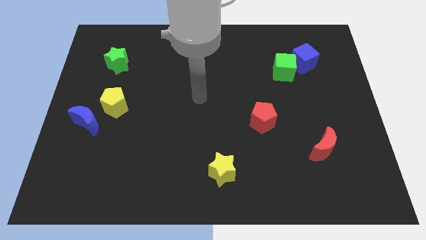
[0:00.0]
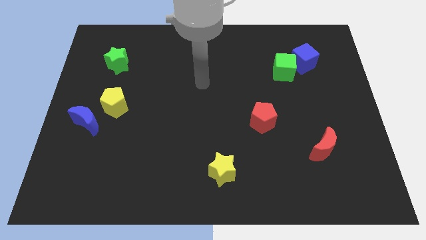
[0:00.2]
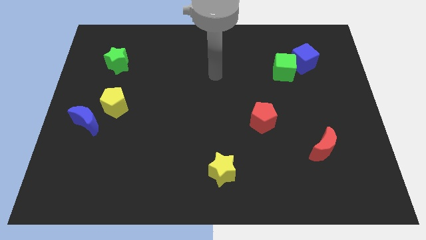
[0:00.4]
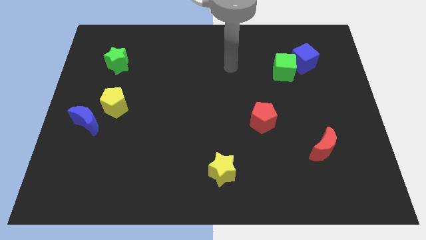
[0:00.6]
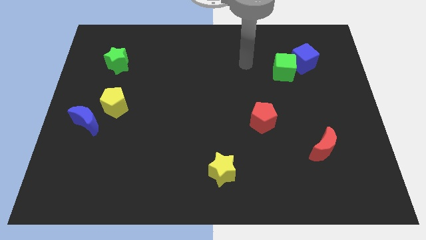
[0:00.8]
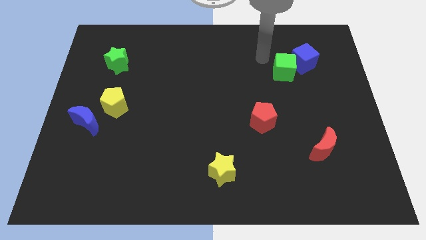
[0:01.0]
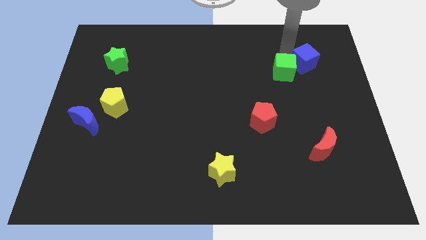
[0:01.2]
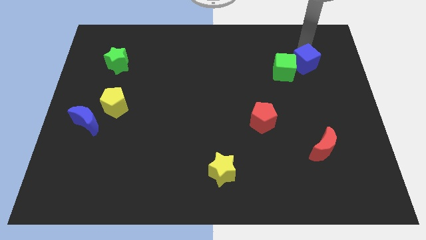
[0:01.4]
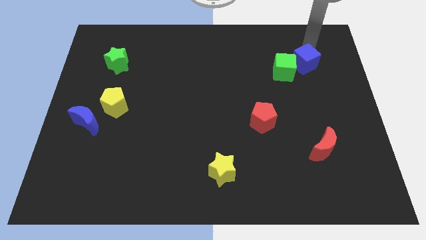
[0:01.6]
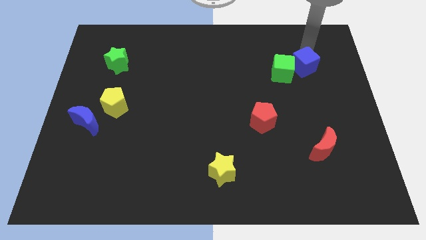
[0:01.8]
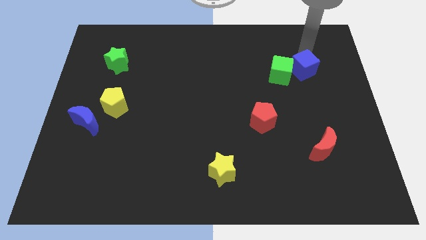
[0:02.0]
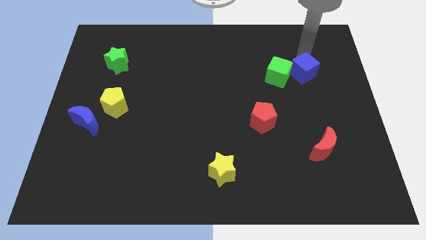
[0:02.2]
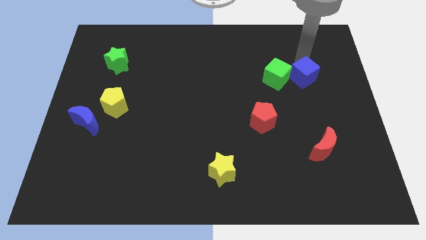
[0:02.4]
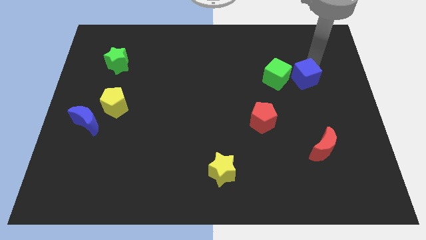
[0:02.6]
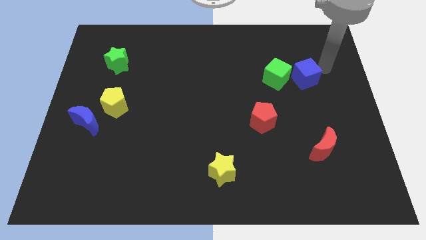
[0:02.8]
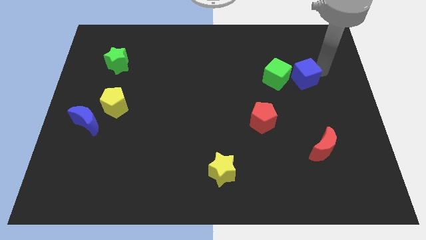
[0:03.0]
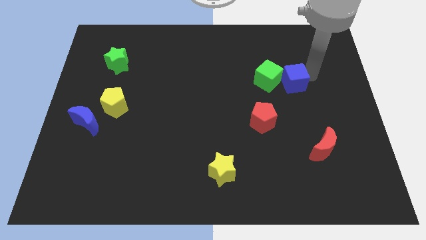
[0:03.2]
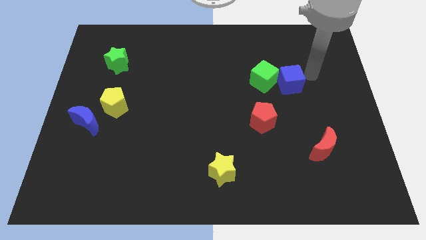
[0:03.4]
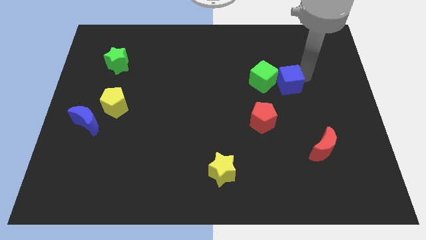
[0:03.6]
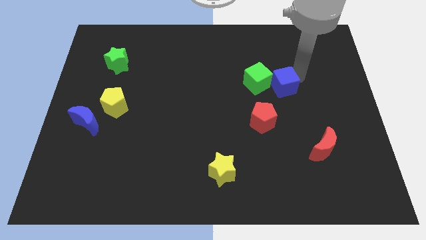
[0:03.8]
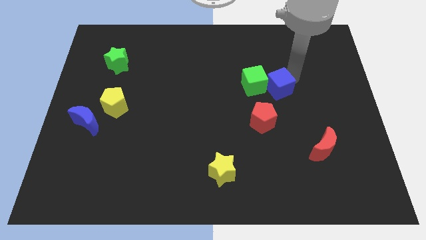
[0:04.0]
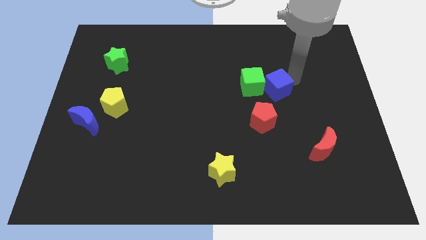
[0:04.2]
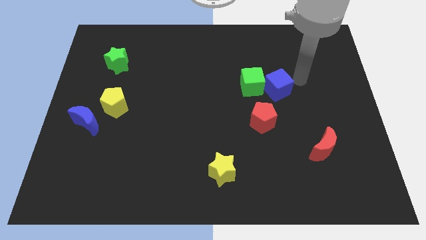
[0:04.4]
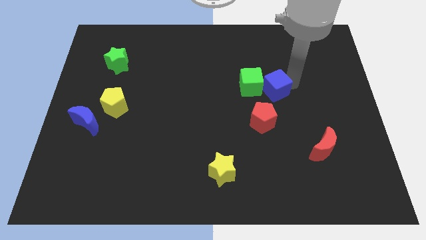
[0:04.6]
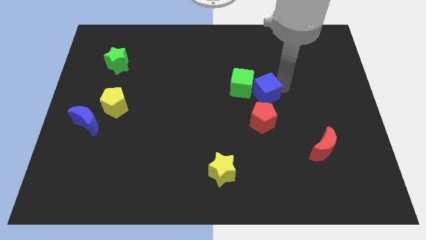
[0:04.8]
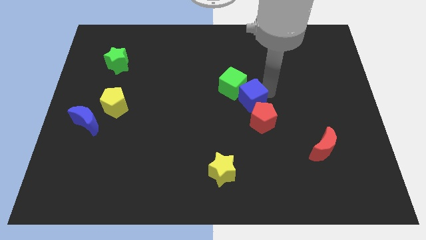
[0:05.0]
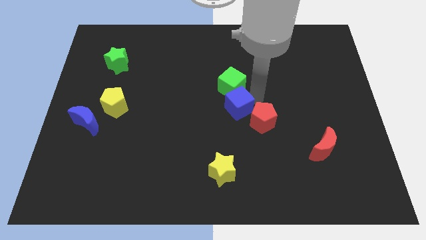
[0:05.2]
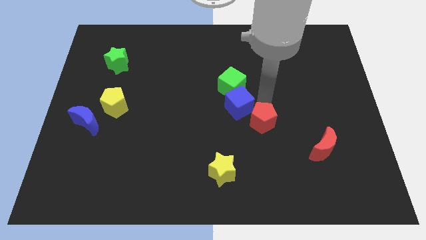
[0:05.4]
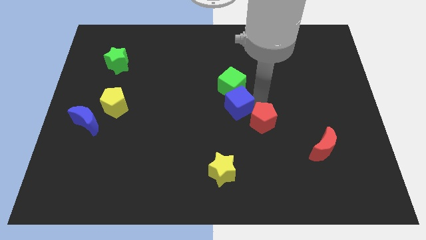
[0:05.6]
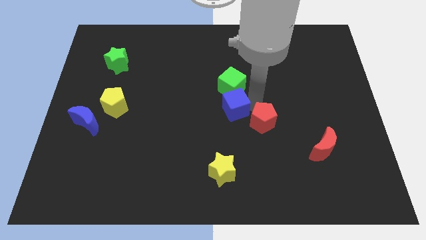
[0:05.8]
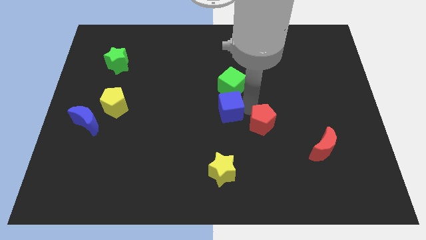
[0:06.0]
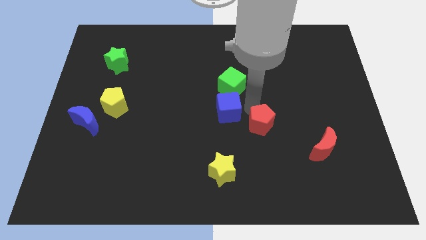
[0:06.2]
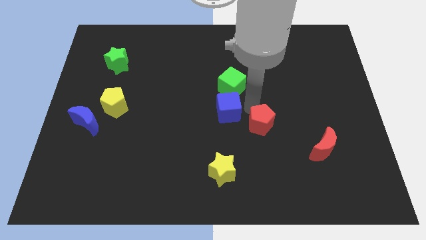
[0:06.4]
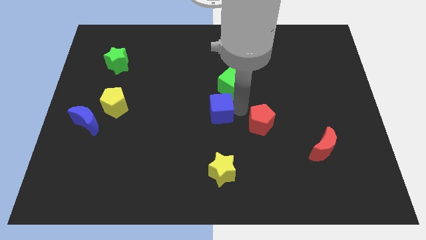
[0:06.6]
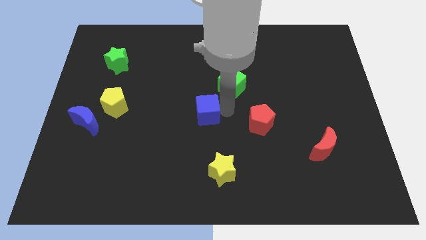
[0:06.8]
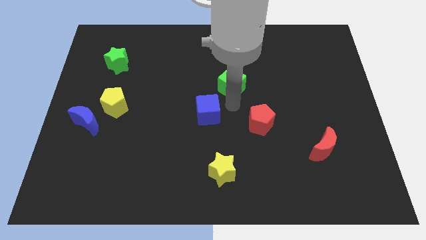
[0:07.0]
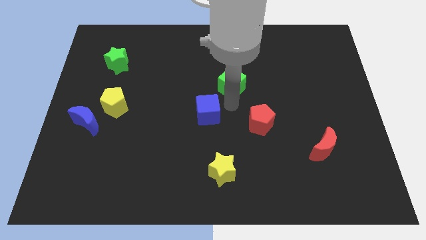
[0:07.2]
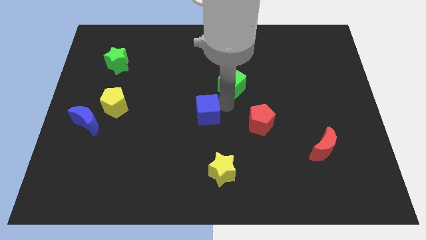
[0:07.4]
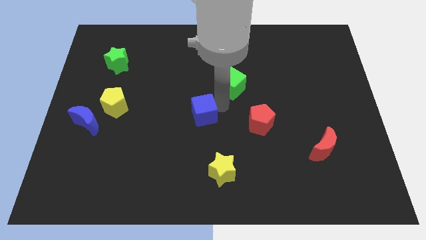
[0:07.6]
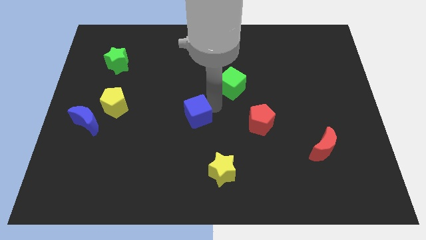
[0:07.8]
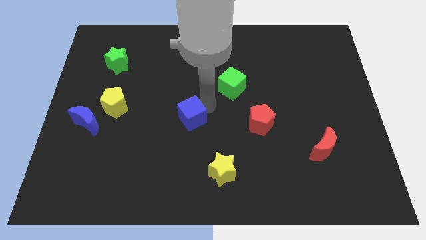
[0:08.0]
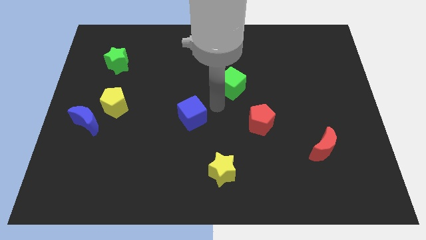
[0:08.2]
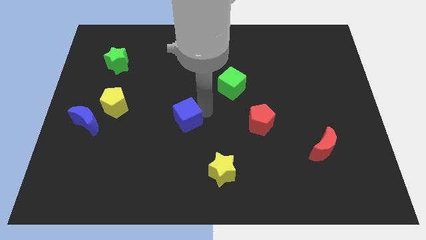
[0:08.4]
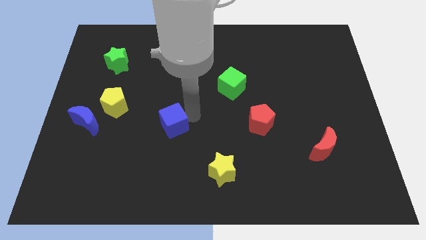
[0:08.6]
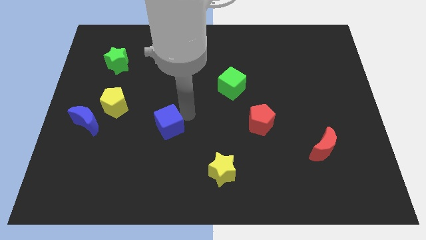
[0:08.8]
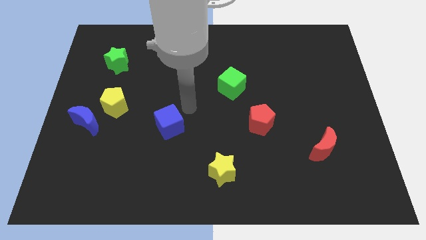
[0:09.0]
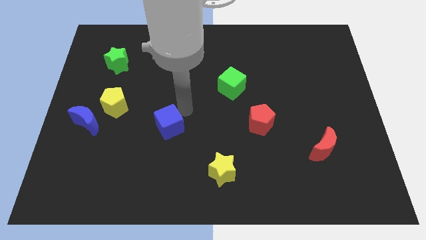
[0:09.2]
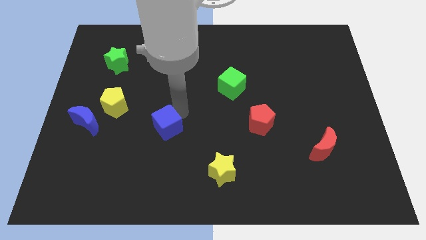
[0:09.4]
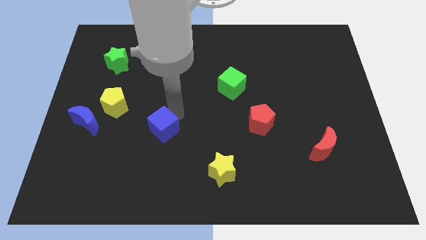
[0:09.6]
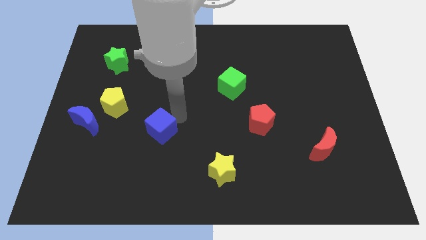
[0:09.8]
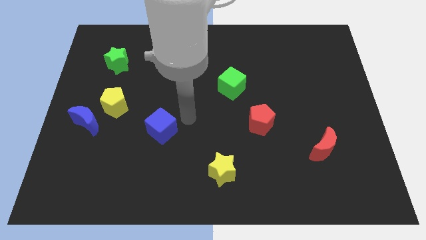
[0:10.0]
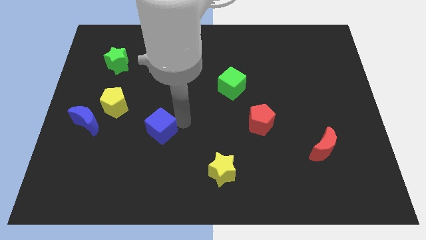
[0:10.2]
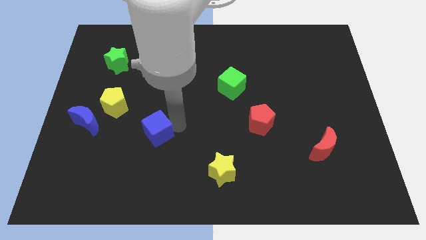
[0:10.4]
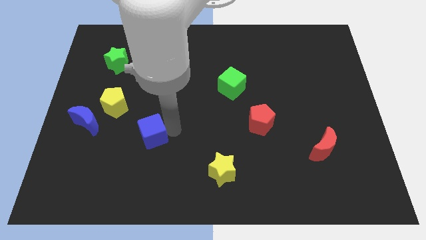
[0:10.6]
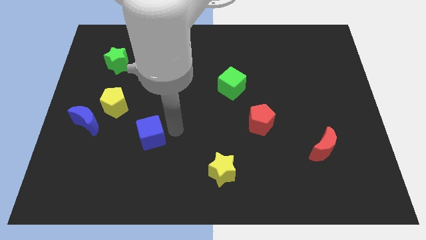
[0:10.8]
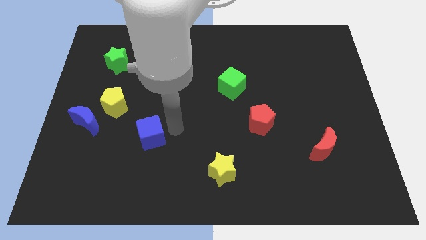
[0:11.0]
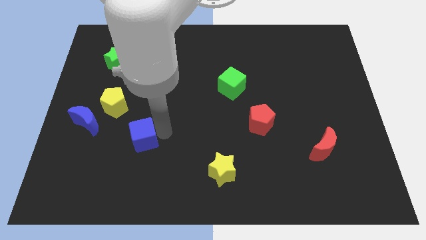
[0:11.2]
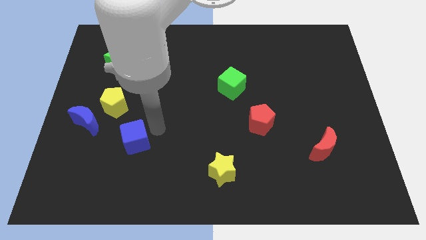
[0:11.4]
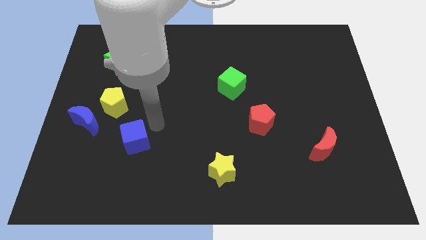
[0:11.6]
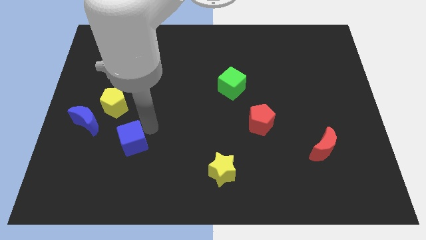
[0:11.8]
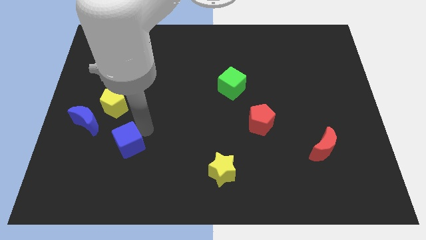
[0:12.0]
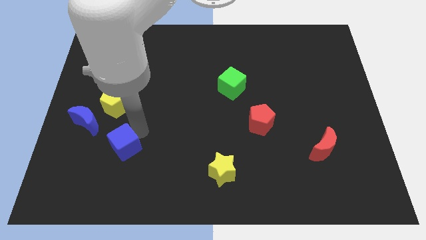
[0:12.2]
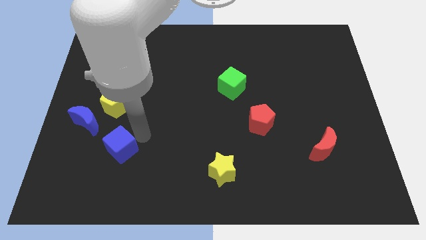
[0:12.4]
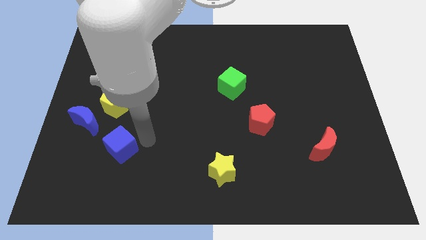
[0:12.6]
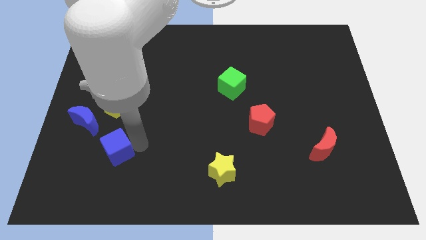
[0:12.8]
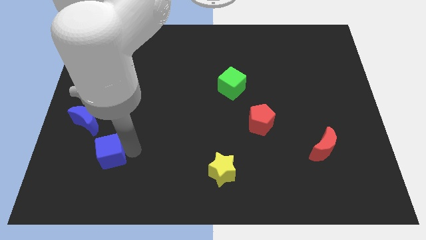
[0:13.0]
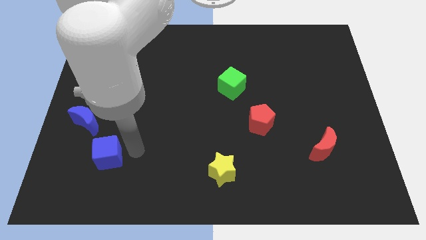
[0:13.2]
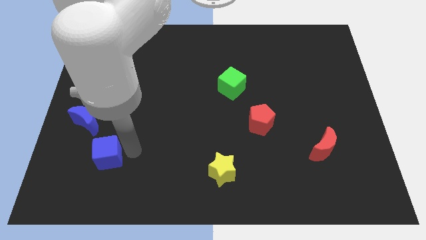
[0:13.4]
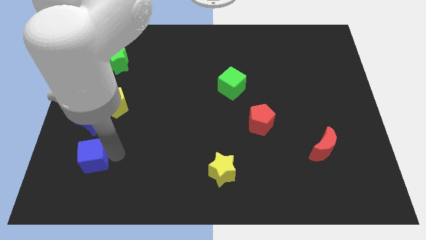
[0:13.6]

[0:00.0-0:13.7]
push the blue cube to the bottom of the blue moon

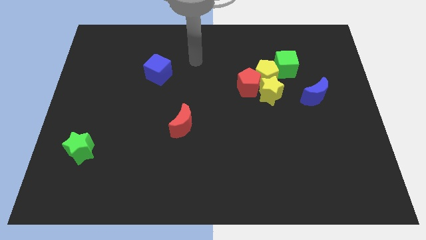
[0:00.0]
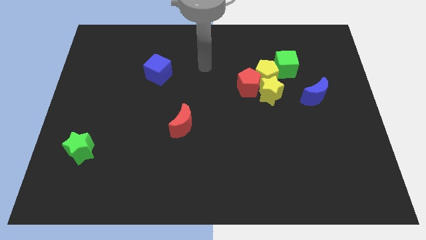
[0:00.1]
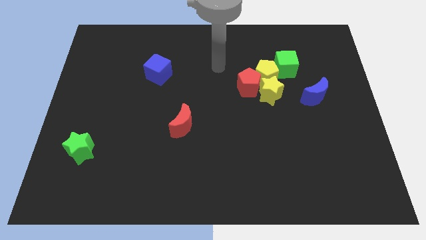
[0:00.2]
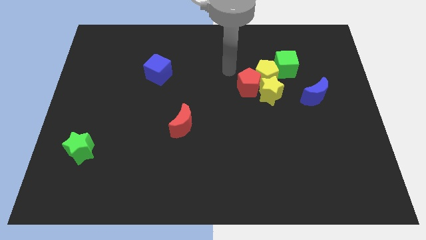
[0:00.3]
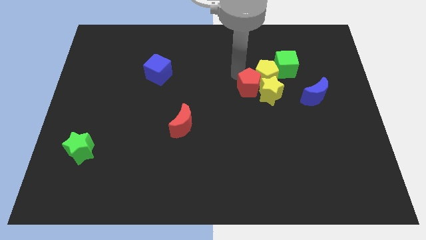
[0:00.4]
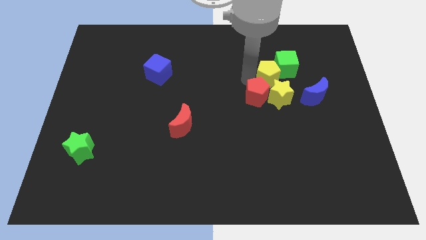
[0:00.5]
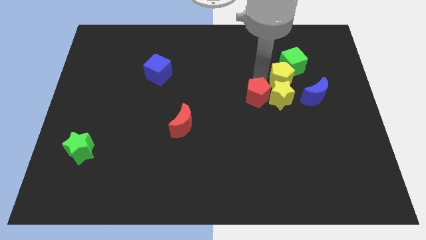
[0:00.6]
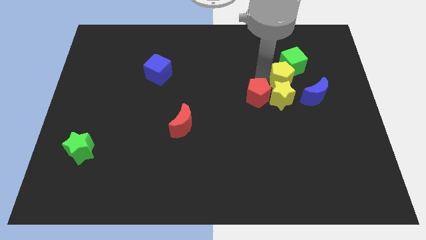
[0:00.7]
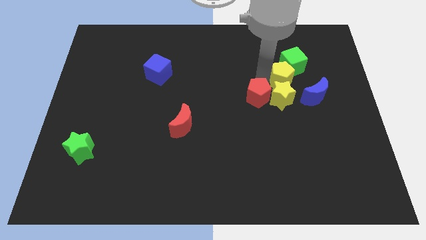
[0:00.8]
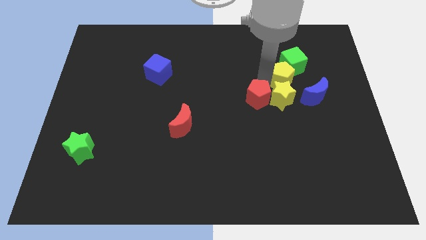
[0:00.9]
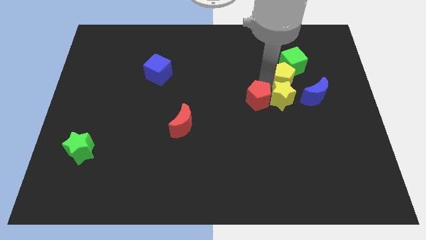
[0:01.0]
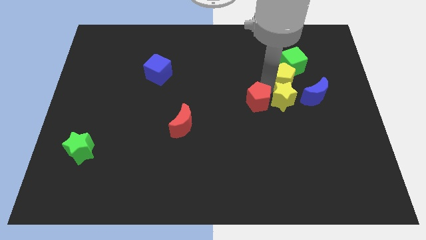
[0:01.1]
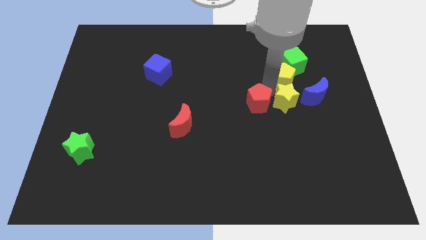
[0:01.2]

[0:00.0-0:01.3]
slide the yellow star to the bottom left of the blue moon
